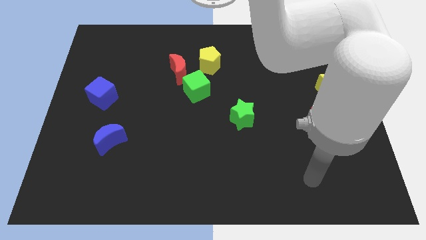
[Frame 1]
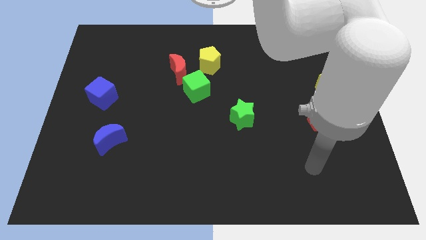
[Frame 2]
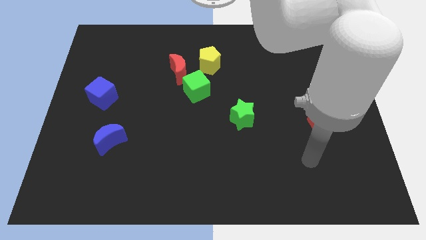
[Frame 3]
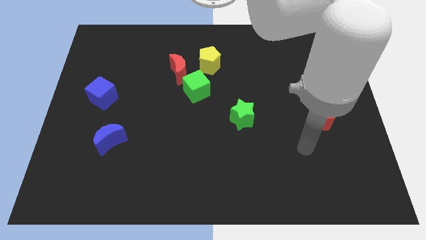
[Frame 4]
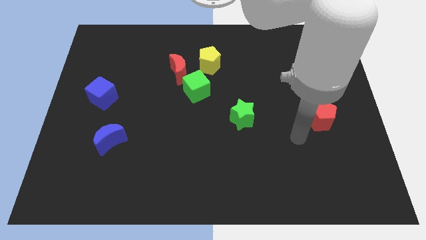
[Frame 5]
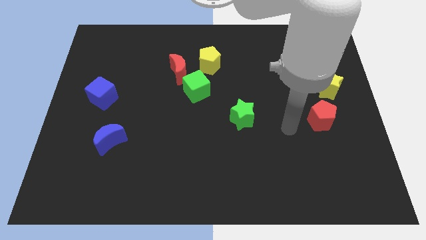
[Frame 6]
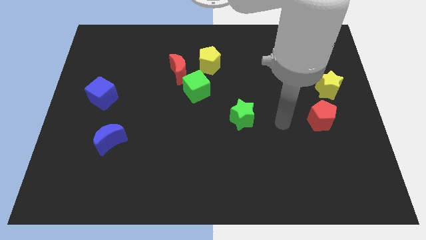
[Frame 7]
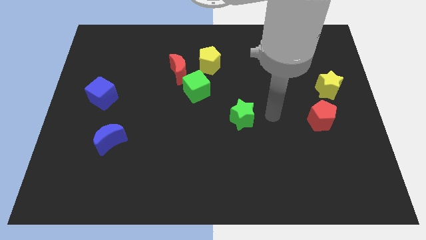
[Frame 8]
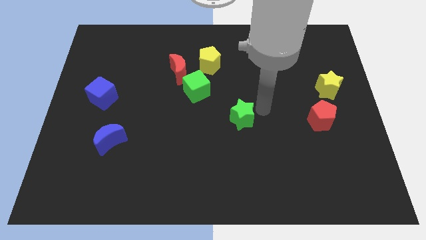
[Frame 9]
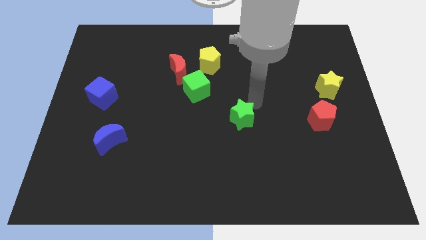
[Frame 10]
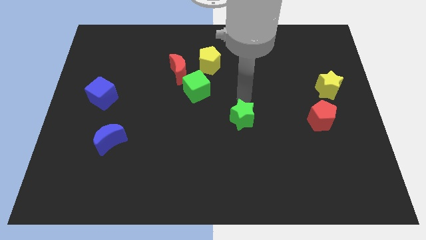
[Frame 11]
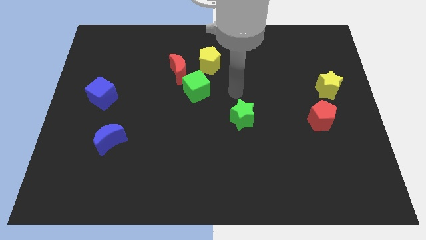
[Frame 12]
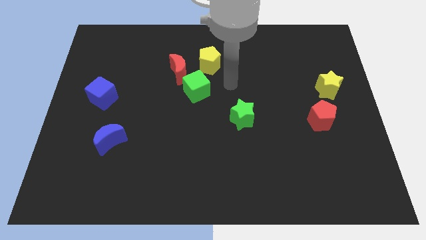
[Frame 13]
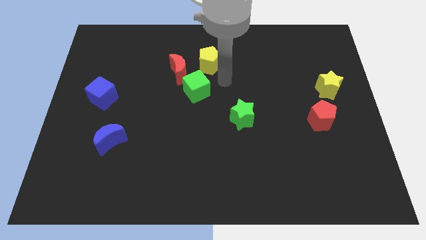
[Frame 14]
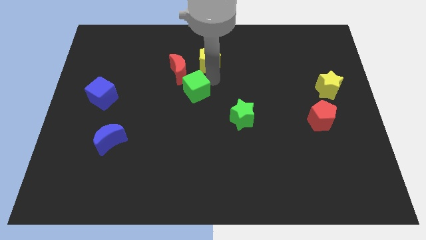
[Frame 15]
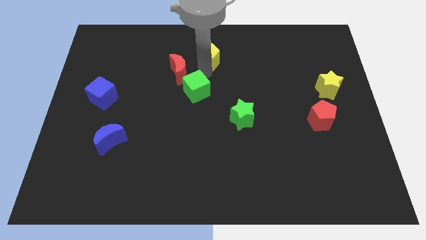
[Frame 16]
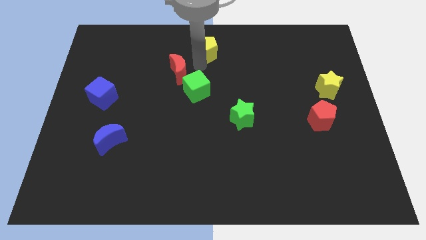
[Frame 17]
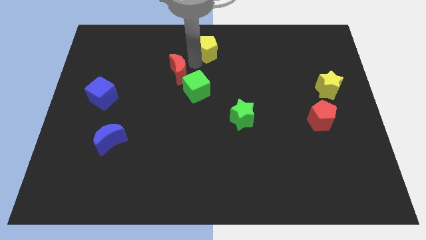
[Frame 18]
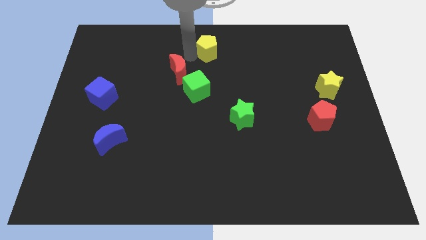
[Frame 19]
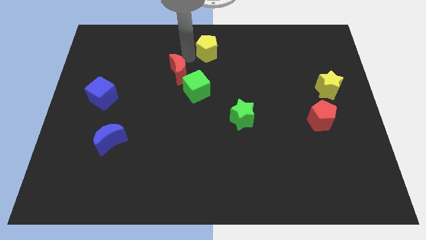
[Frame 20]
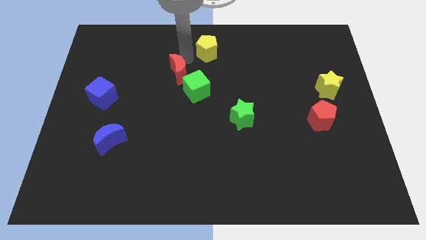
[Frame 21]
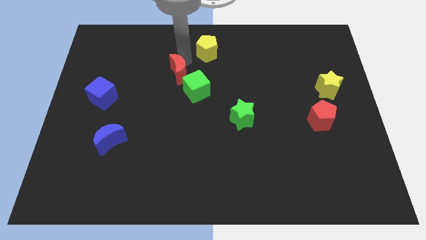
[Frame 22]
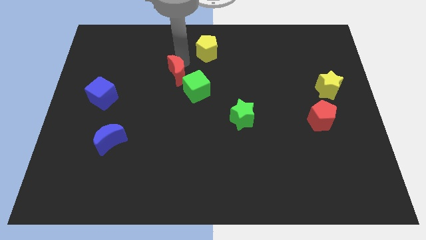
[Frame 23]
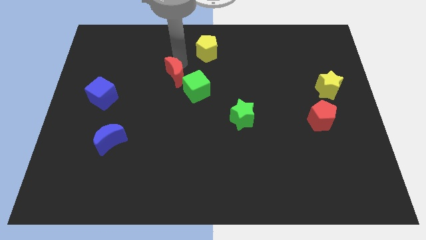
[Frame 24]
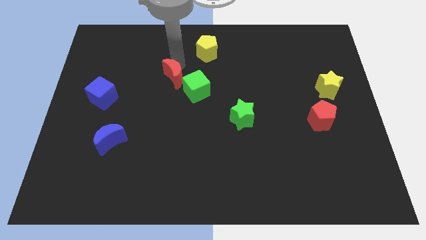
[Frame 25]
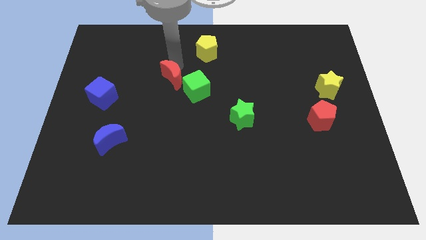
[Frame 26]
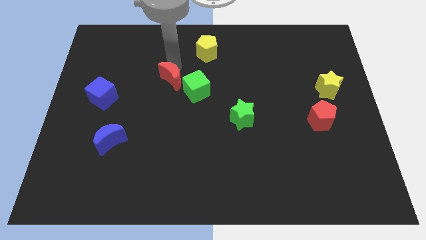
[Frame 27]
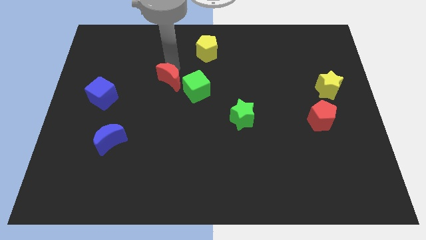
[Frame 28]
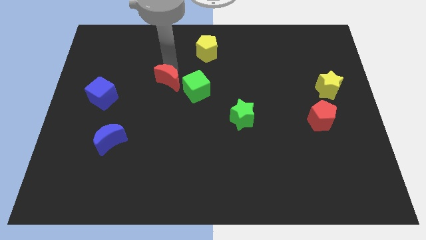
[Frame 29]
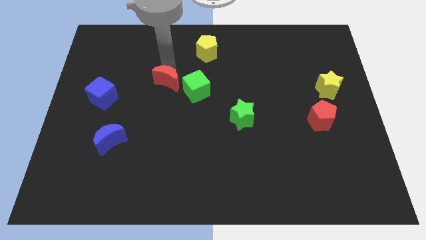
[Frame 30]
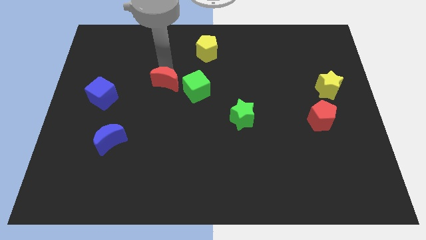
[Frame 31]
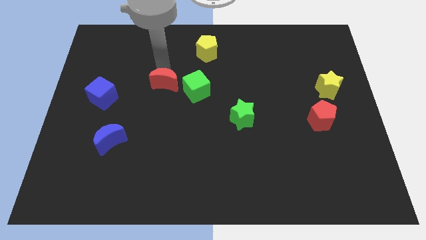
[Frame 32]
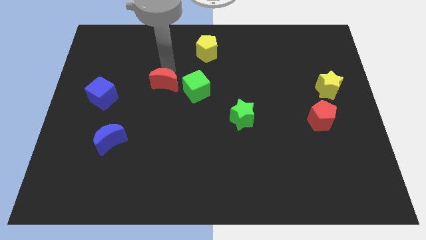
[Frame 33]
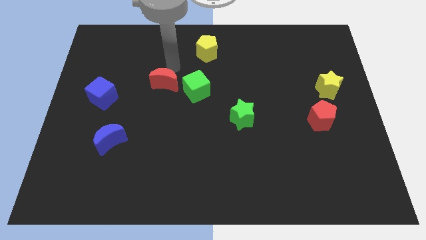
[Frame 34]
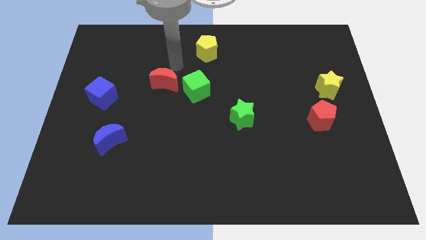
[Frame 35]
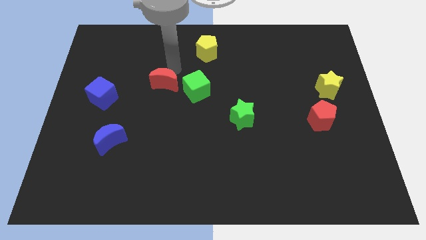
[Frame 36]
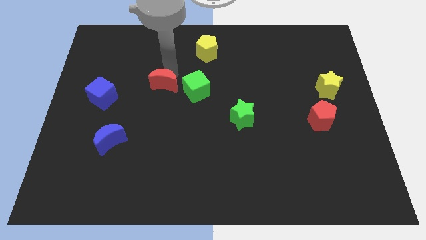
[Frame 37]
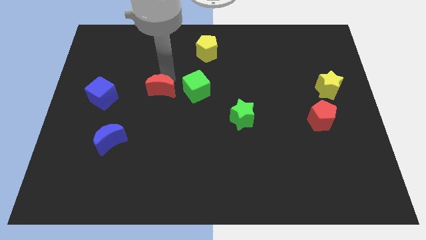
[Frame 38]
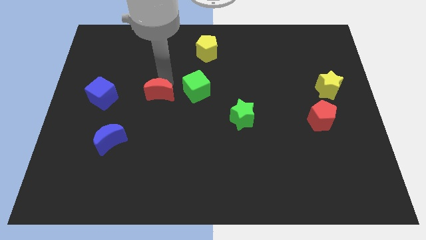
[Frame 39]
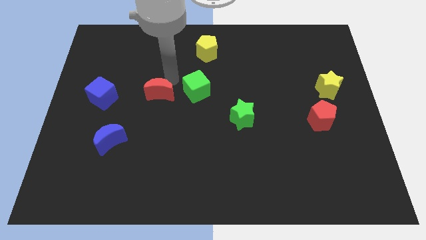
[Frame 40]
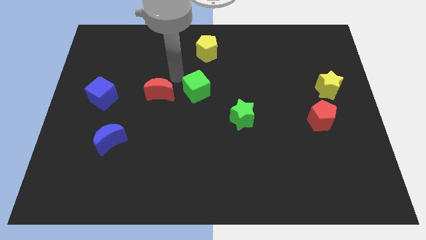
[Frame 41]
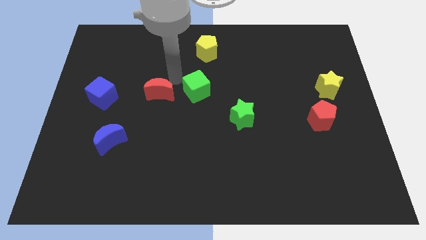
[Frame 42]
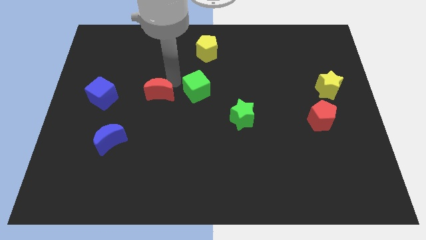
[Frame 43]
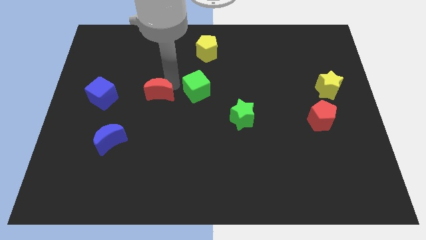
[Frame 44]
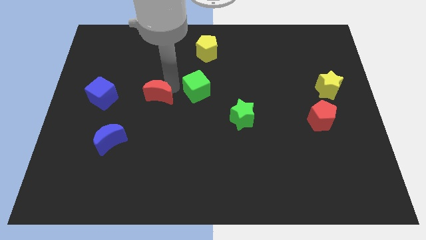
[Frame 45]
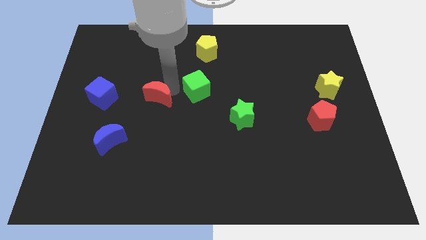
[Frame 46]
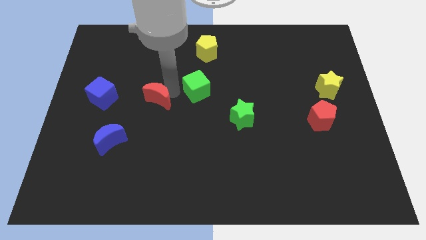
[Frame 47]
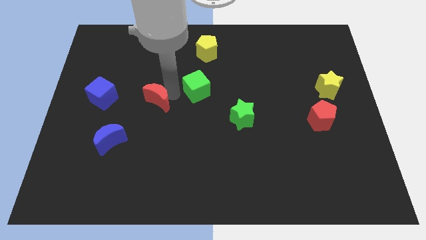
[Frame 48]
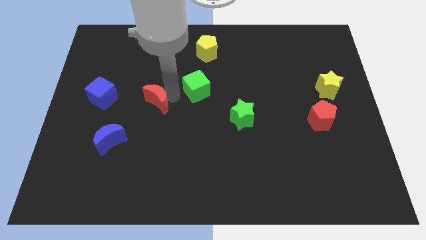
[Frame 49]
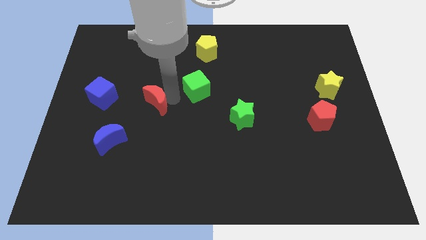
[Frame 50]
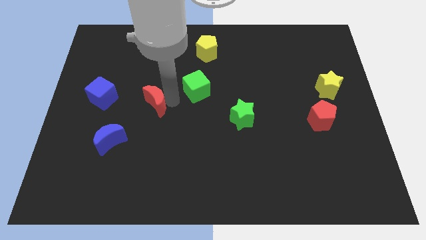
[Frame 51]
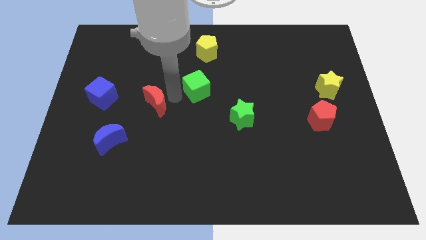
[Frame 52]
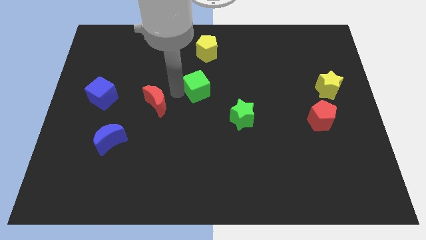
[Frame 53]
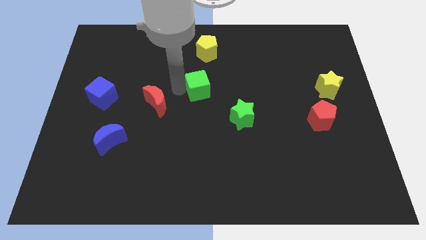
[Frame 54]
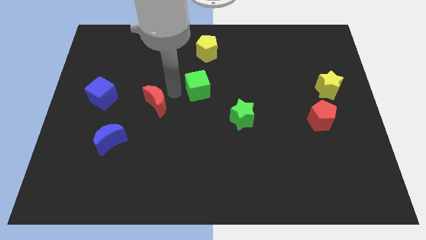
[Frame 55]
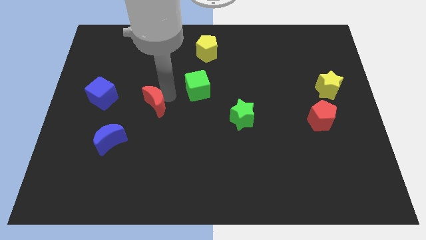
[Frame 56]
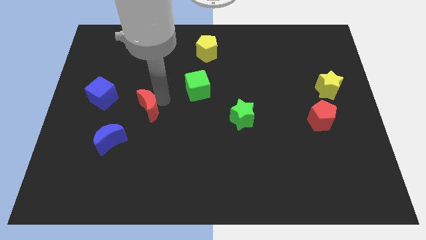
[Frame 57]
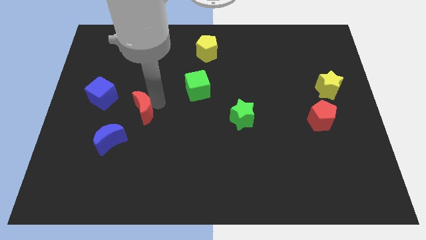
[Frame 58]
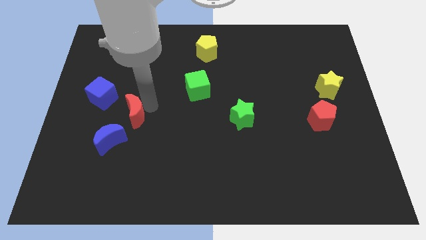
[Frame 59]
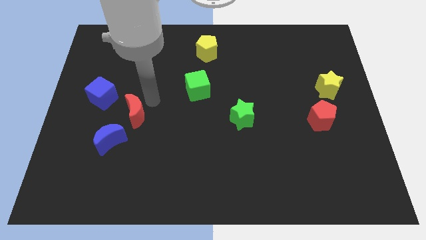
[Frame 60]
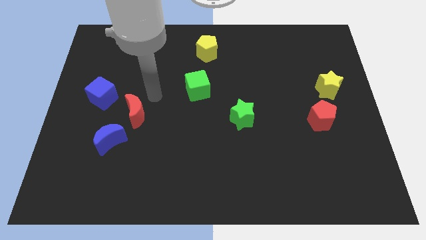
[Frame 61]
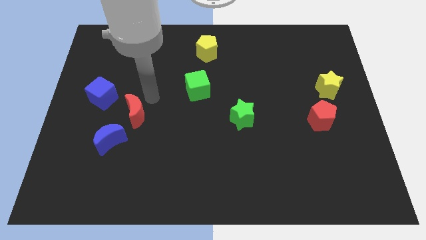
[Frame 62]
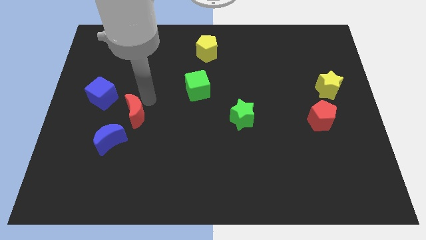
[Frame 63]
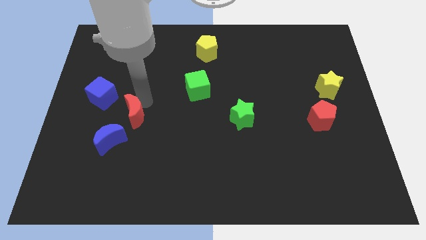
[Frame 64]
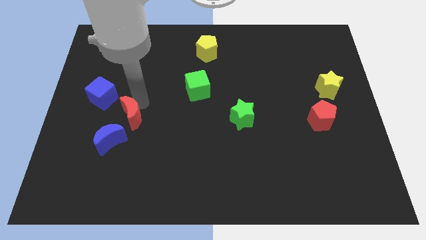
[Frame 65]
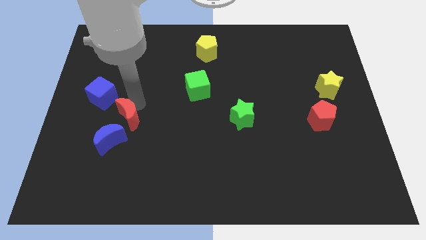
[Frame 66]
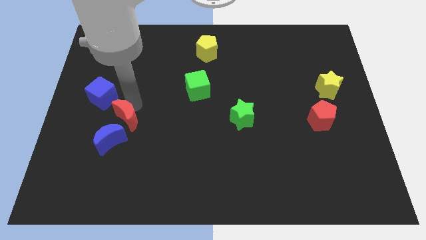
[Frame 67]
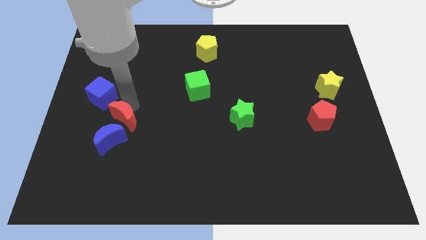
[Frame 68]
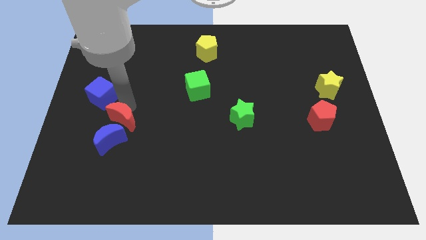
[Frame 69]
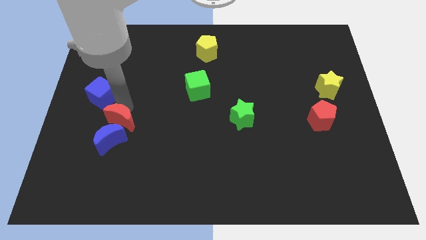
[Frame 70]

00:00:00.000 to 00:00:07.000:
slide the red moon close to the blue moon

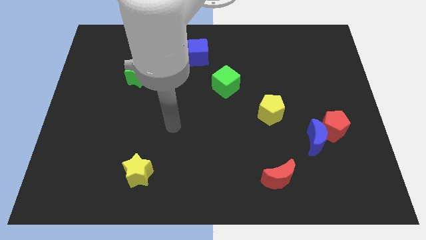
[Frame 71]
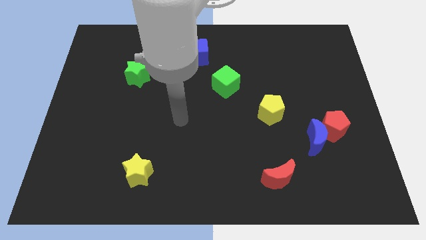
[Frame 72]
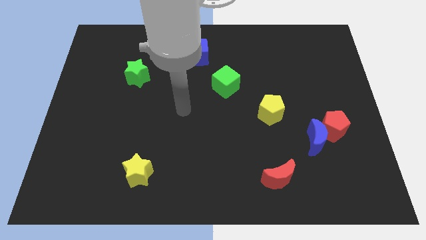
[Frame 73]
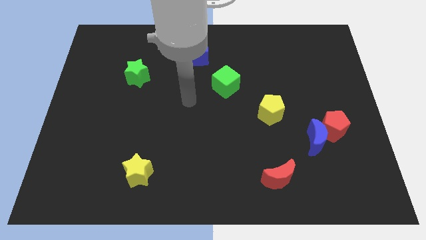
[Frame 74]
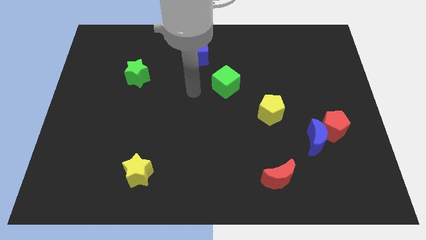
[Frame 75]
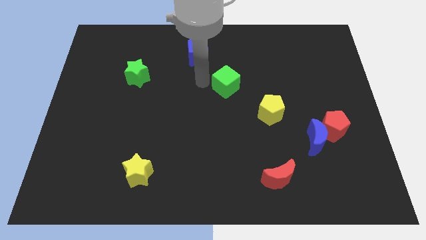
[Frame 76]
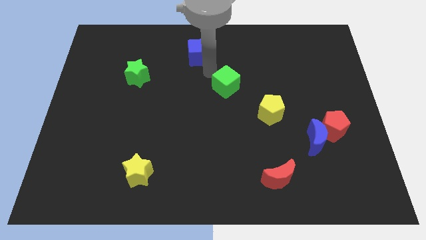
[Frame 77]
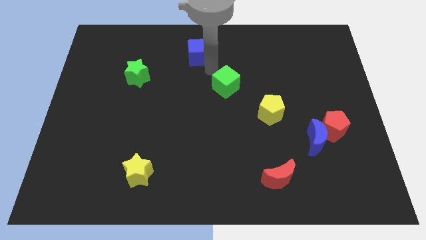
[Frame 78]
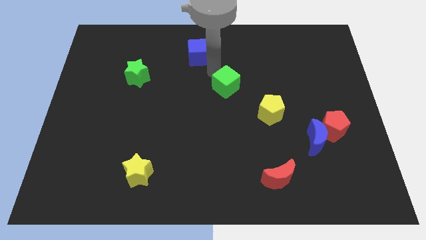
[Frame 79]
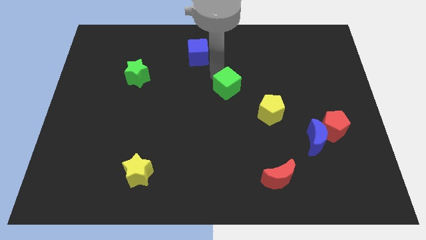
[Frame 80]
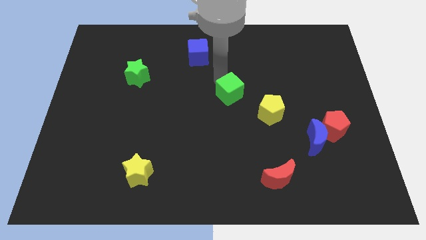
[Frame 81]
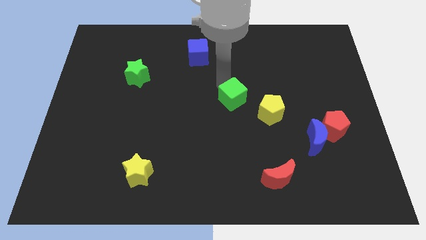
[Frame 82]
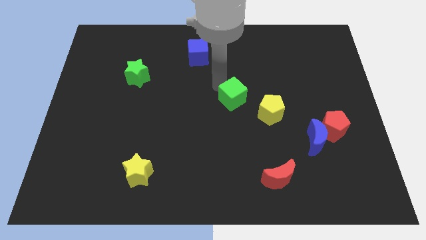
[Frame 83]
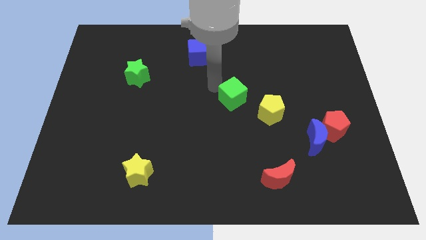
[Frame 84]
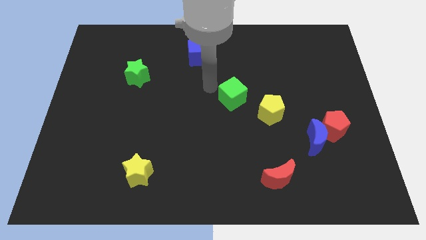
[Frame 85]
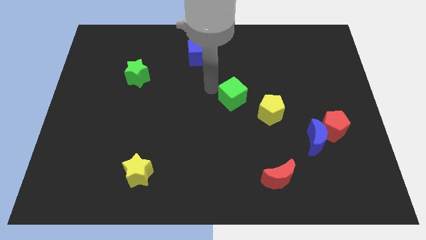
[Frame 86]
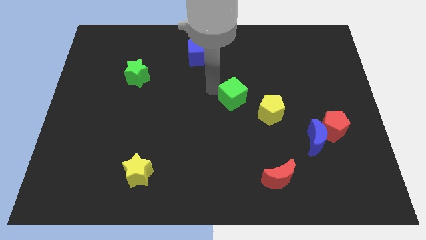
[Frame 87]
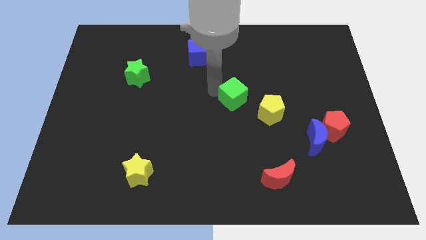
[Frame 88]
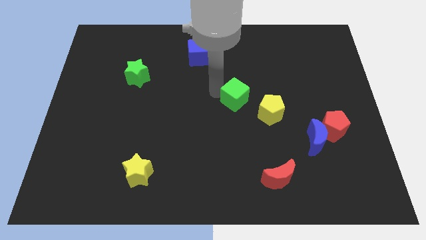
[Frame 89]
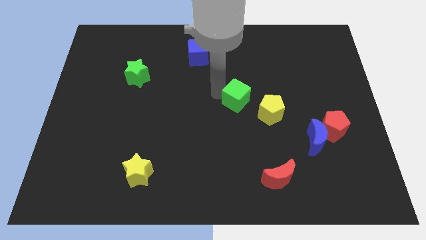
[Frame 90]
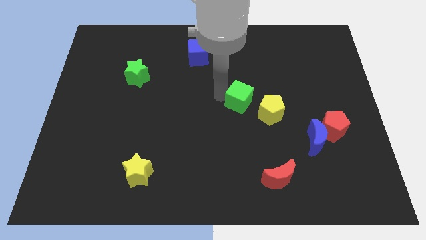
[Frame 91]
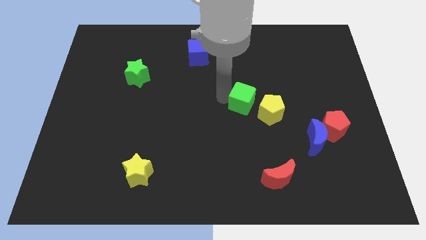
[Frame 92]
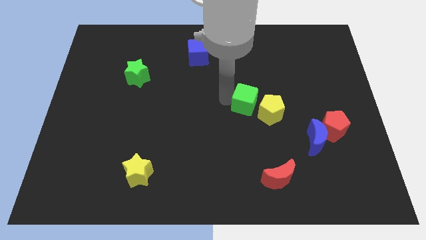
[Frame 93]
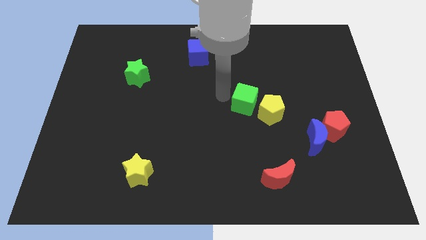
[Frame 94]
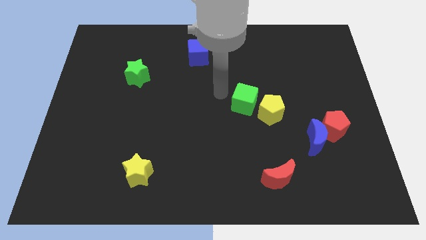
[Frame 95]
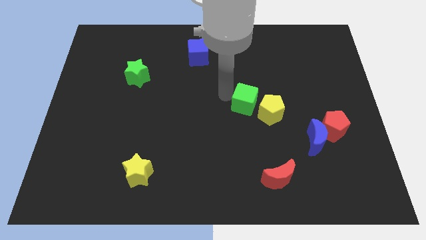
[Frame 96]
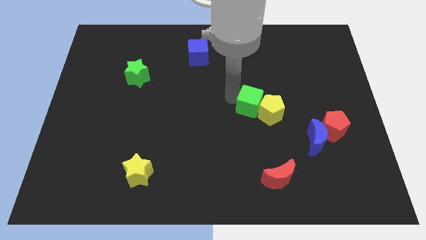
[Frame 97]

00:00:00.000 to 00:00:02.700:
push the green cube towards the yellow pentagon
